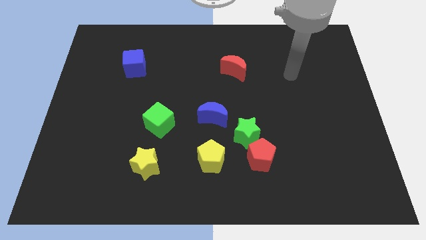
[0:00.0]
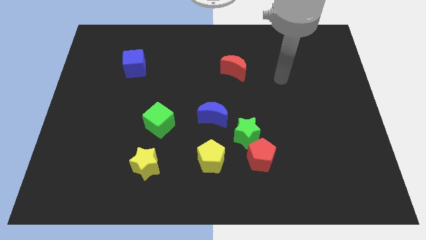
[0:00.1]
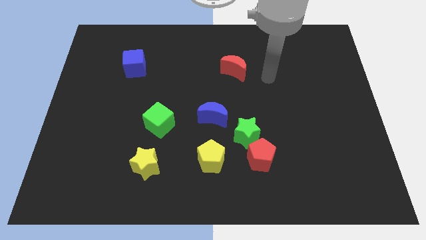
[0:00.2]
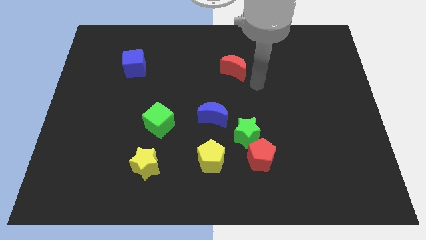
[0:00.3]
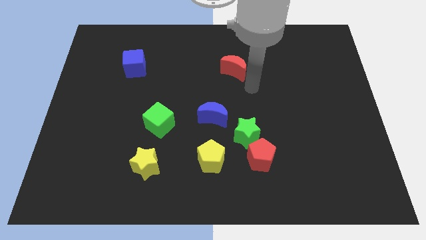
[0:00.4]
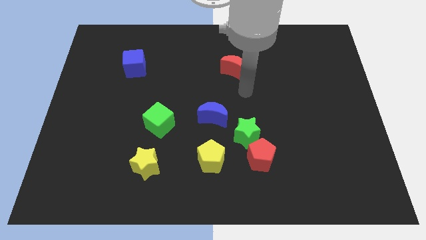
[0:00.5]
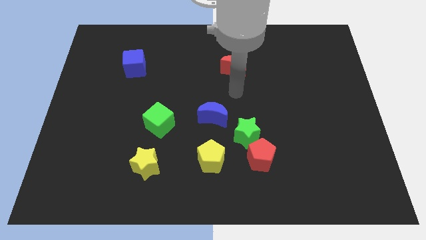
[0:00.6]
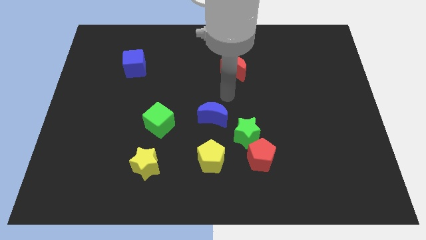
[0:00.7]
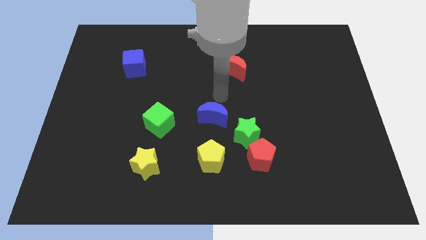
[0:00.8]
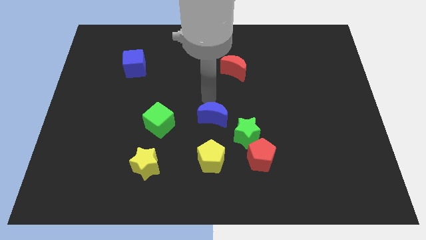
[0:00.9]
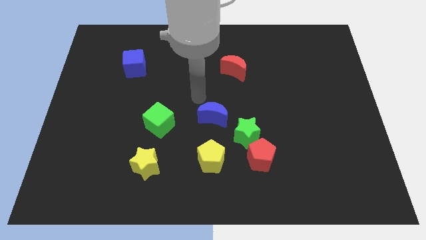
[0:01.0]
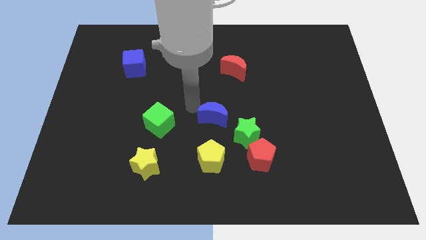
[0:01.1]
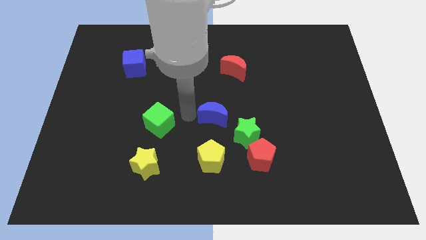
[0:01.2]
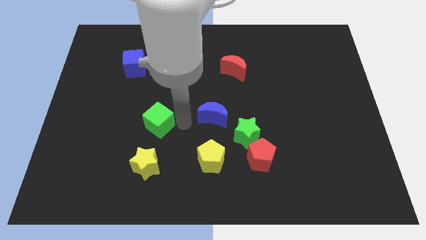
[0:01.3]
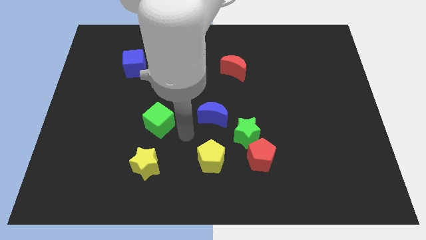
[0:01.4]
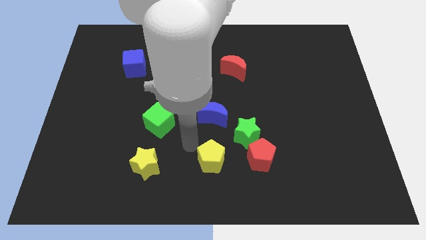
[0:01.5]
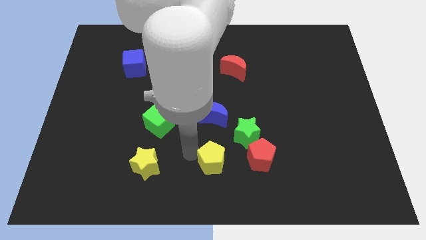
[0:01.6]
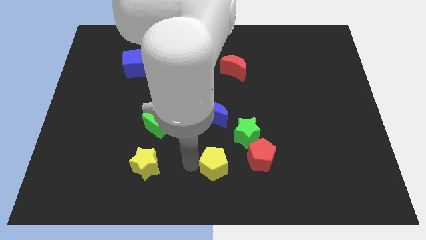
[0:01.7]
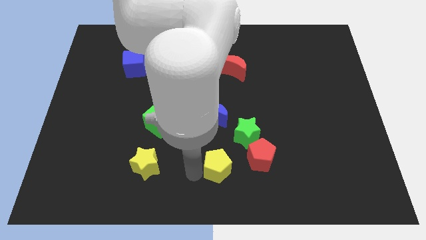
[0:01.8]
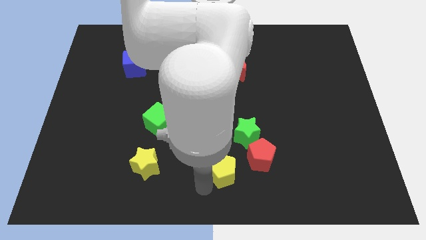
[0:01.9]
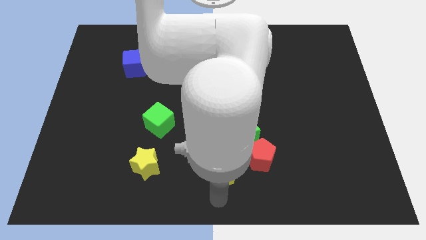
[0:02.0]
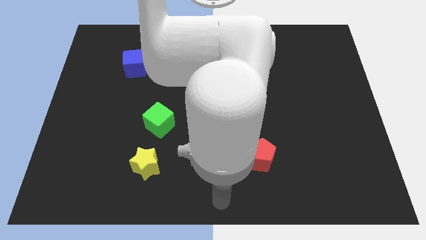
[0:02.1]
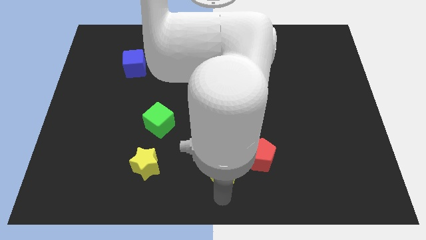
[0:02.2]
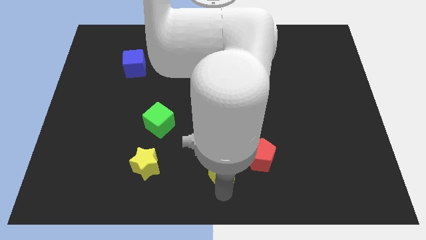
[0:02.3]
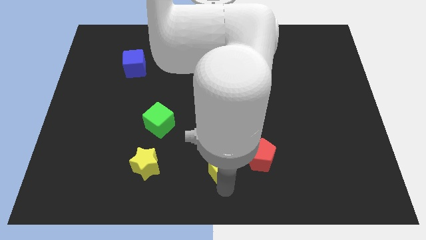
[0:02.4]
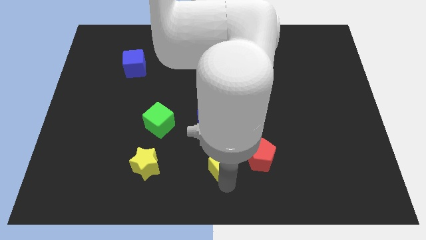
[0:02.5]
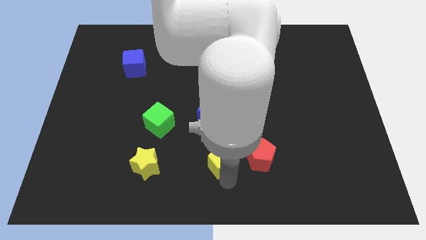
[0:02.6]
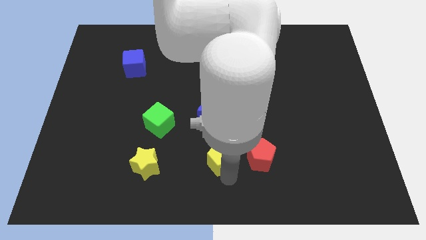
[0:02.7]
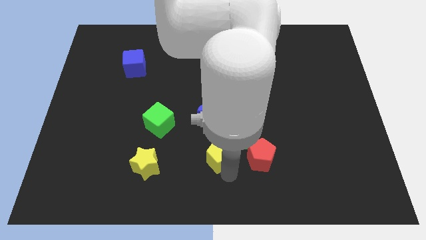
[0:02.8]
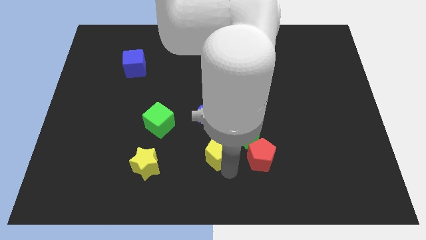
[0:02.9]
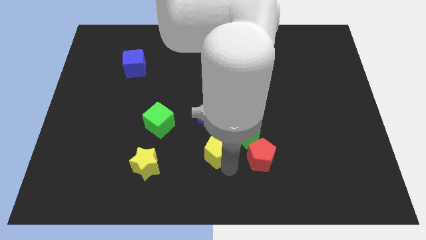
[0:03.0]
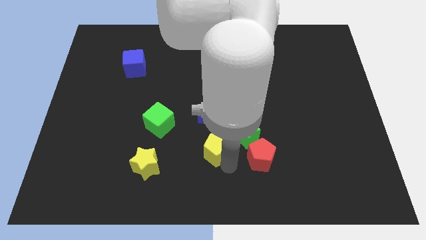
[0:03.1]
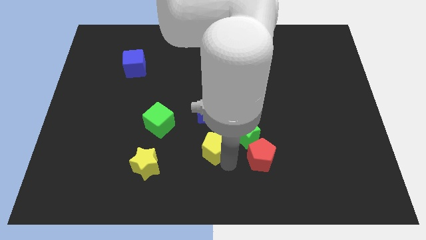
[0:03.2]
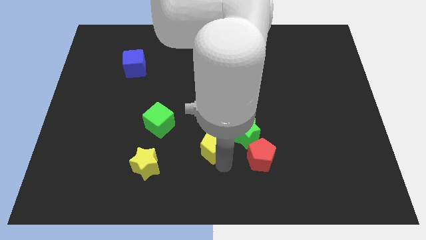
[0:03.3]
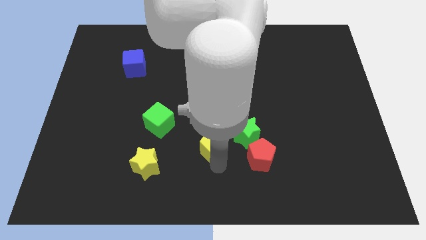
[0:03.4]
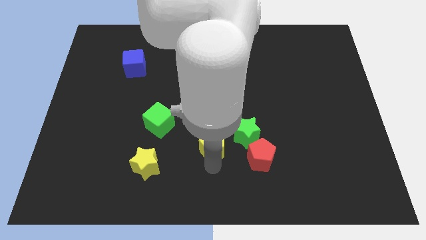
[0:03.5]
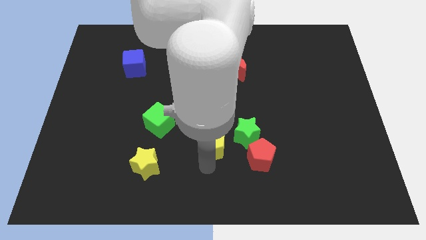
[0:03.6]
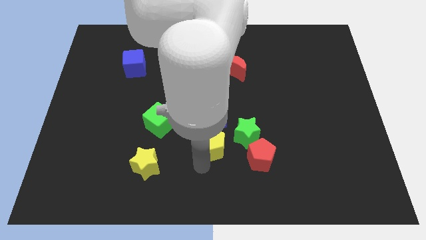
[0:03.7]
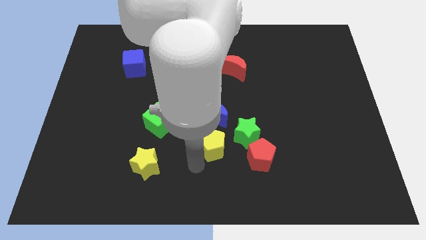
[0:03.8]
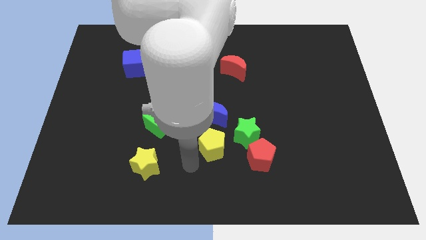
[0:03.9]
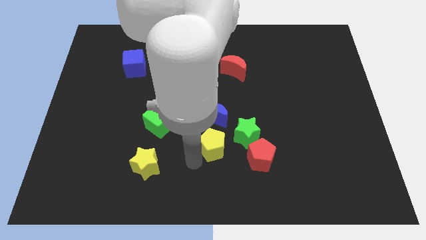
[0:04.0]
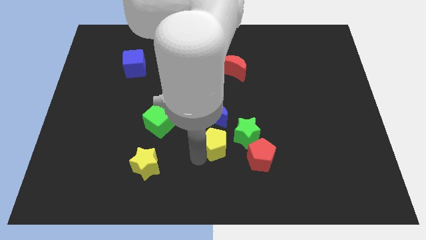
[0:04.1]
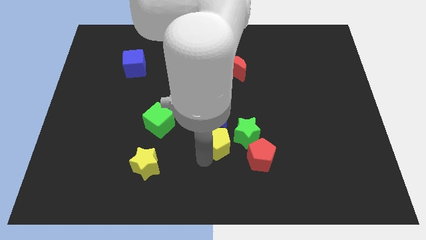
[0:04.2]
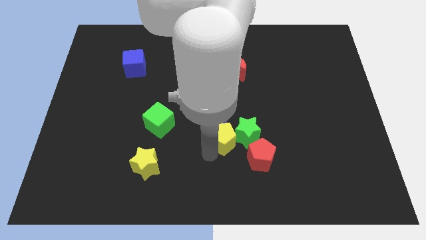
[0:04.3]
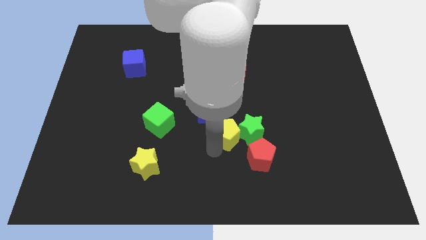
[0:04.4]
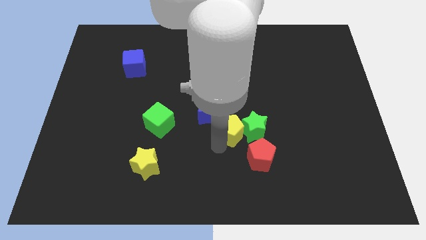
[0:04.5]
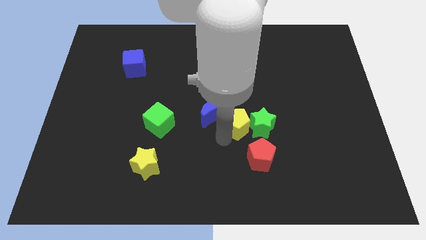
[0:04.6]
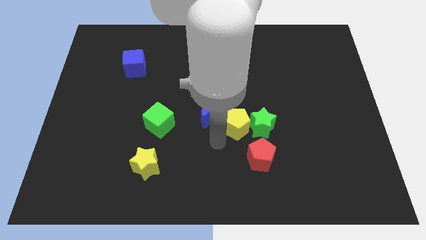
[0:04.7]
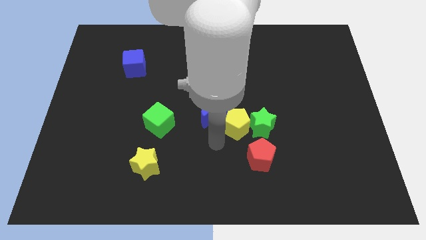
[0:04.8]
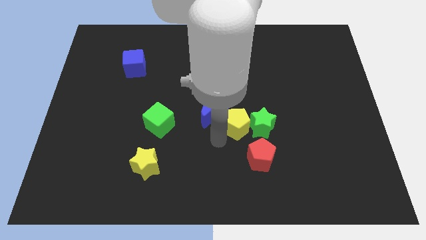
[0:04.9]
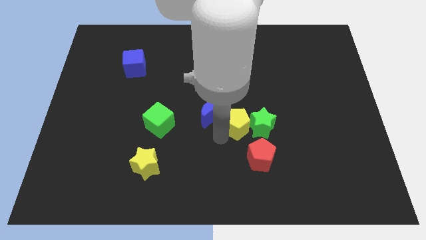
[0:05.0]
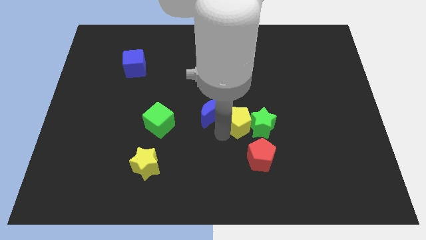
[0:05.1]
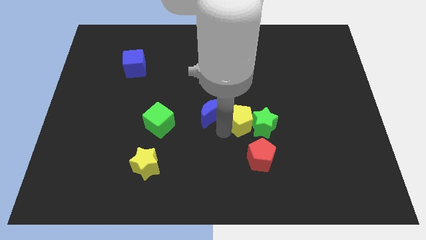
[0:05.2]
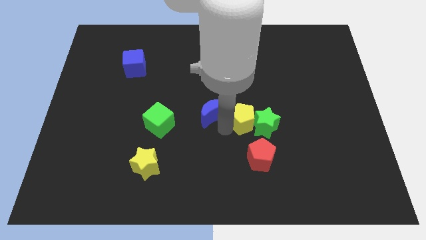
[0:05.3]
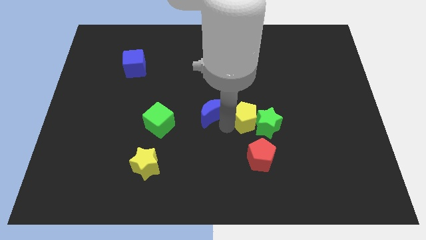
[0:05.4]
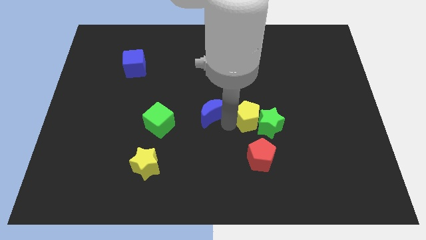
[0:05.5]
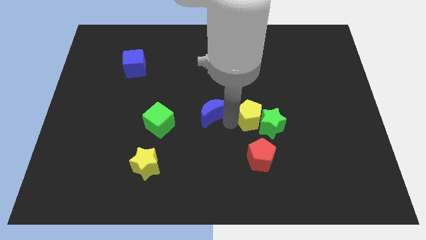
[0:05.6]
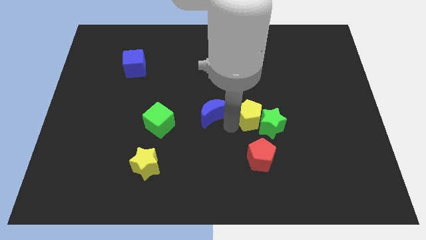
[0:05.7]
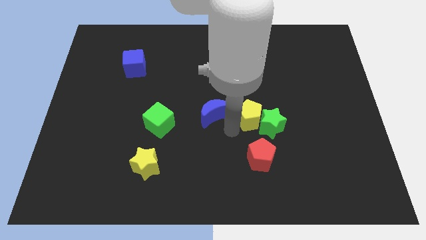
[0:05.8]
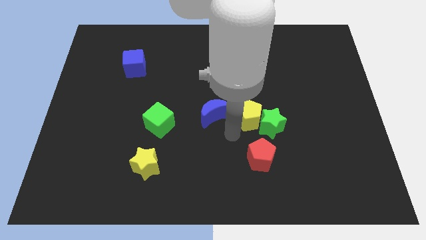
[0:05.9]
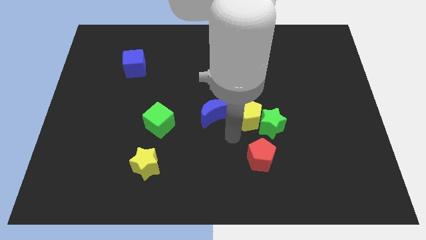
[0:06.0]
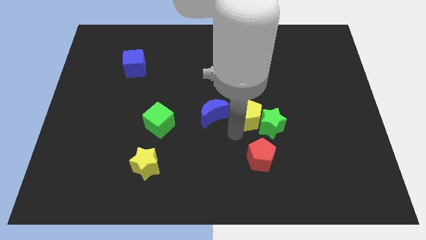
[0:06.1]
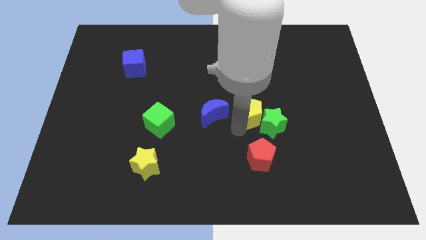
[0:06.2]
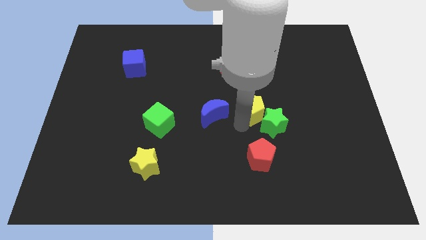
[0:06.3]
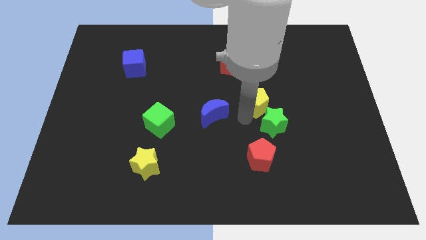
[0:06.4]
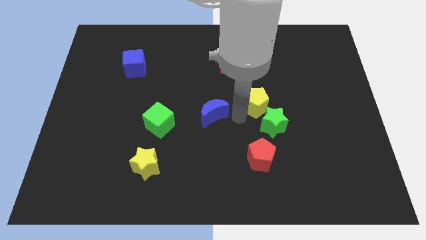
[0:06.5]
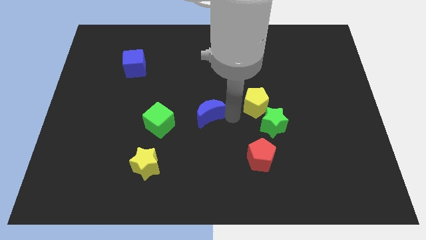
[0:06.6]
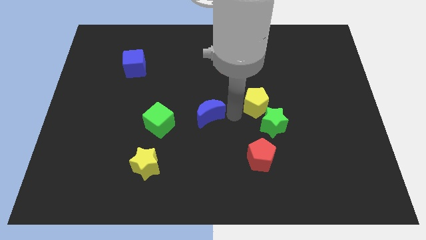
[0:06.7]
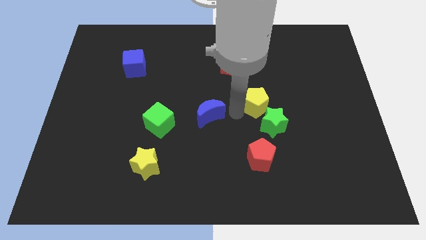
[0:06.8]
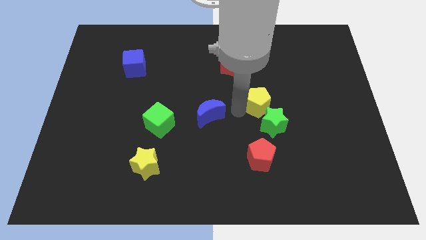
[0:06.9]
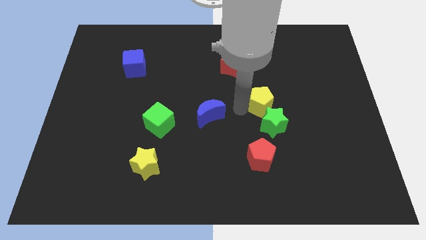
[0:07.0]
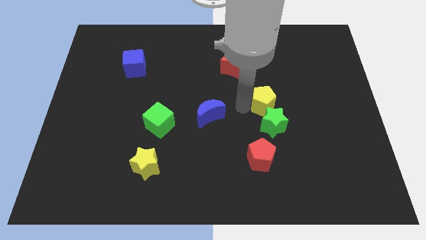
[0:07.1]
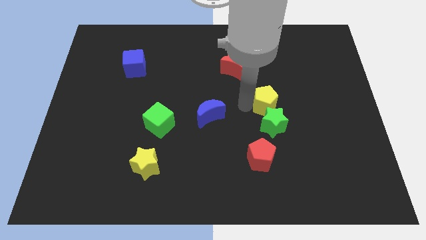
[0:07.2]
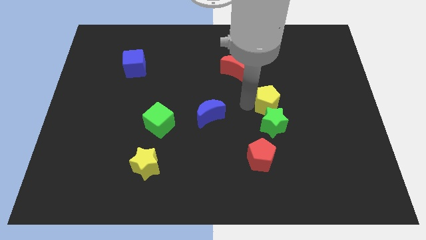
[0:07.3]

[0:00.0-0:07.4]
move the yellow pentagon up and to the right diagonally

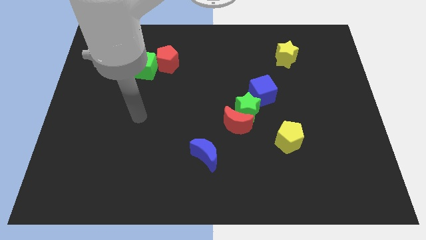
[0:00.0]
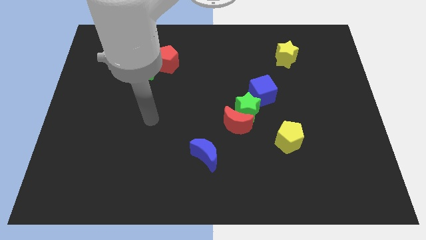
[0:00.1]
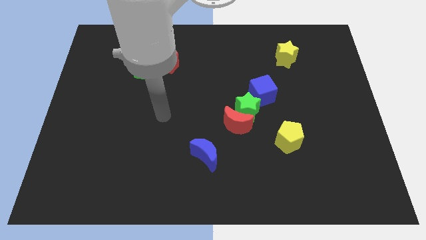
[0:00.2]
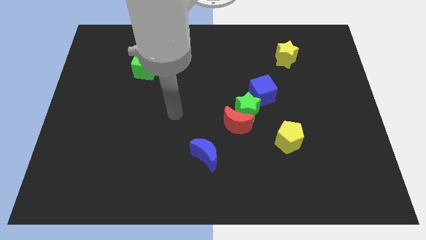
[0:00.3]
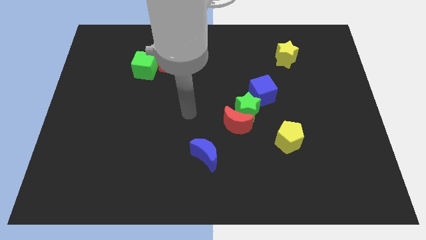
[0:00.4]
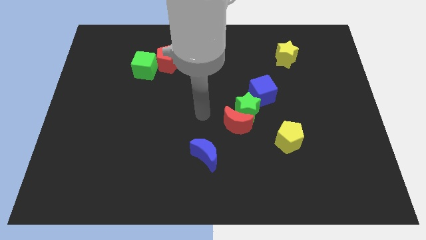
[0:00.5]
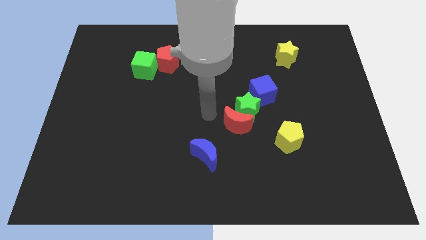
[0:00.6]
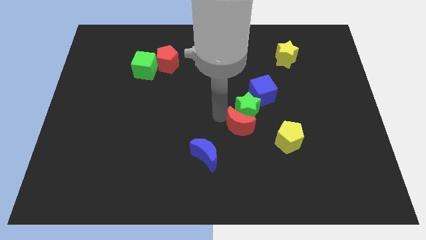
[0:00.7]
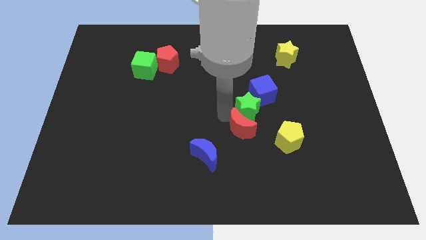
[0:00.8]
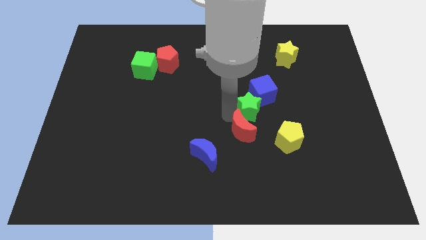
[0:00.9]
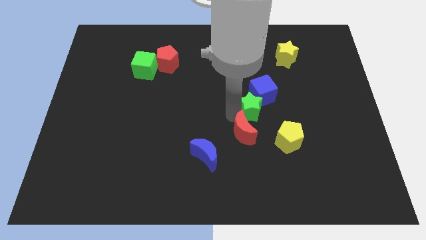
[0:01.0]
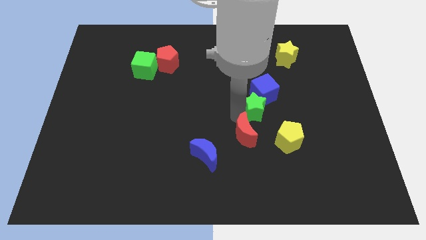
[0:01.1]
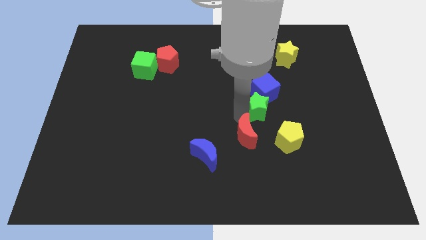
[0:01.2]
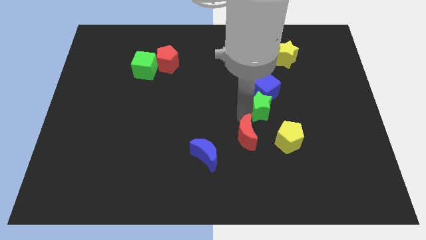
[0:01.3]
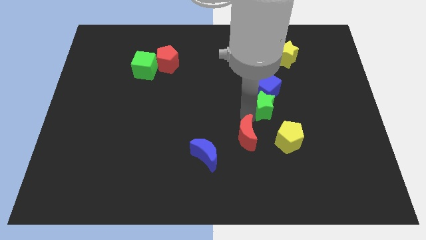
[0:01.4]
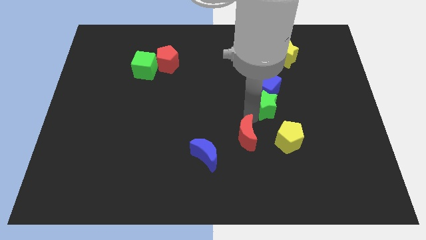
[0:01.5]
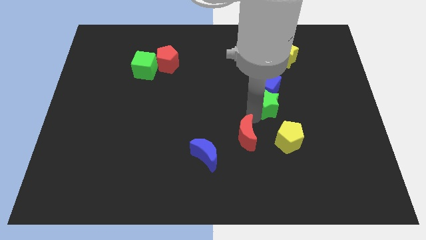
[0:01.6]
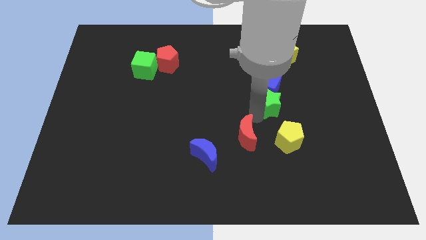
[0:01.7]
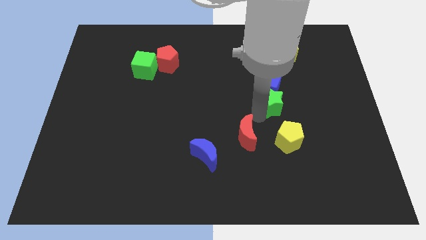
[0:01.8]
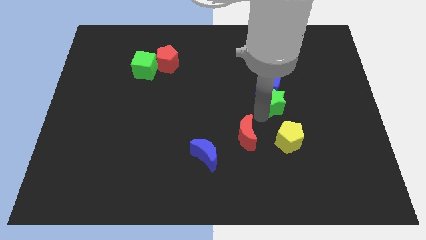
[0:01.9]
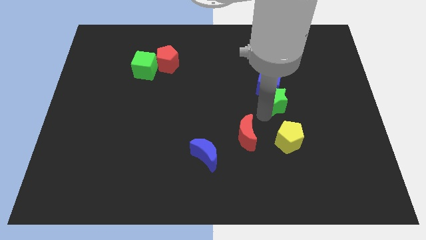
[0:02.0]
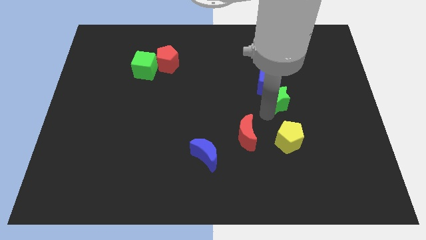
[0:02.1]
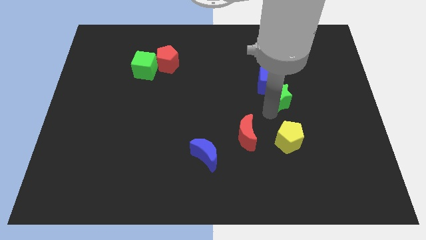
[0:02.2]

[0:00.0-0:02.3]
slightly push the green star upwards and to the right
